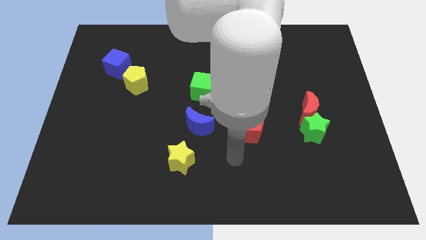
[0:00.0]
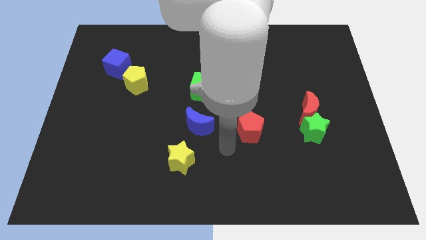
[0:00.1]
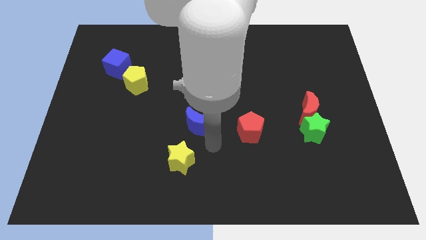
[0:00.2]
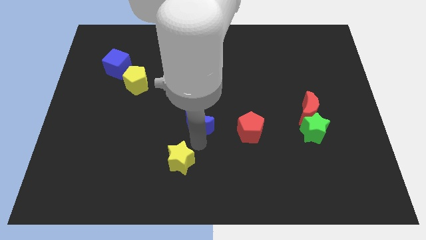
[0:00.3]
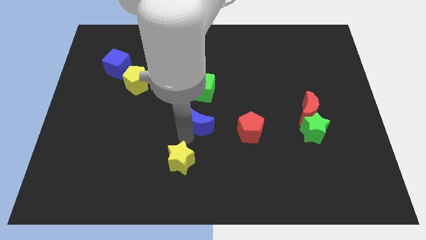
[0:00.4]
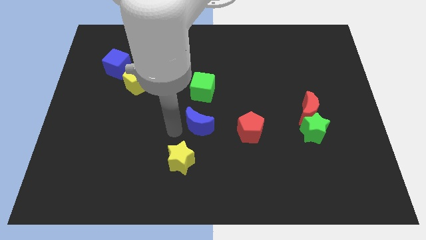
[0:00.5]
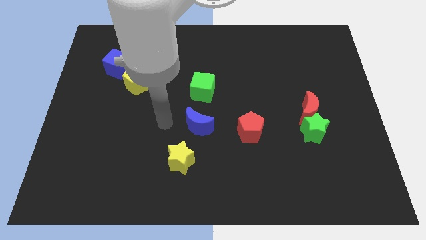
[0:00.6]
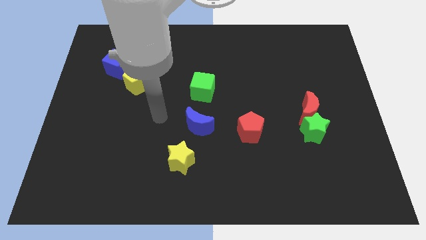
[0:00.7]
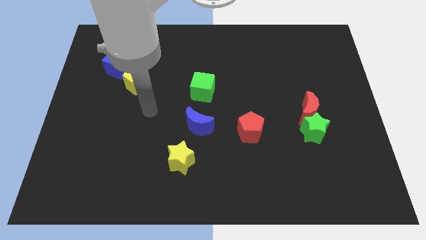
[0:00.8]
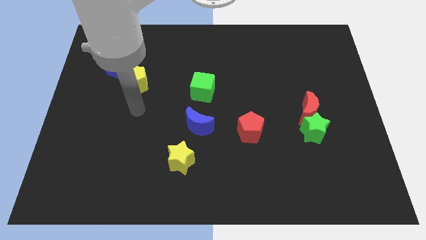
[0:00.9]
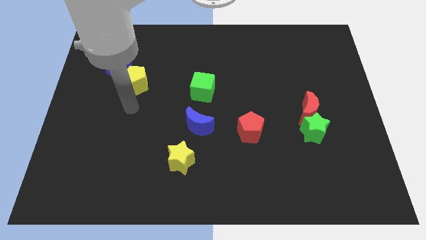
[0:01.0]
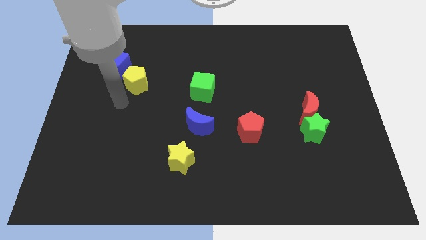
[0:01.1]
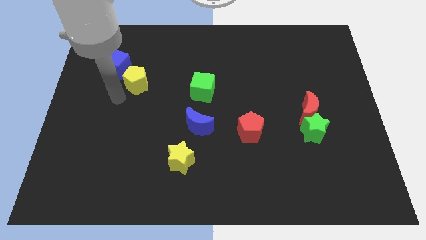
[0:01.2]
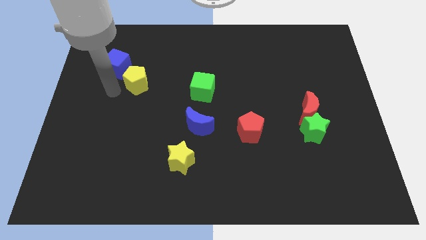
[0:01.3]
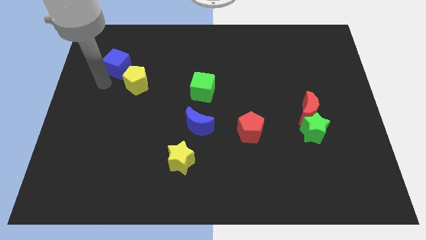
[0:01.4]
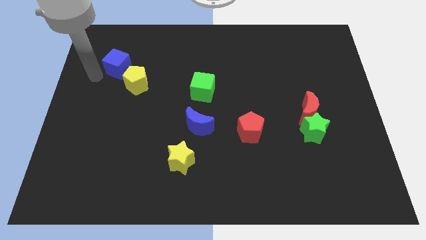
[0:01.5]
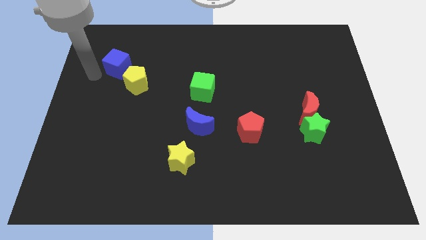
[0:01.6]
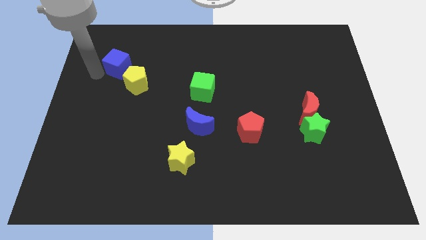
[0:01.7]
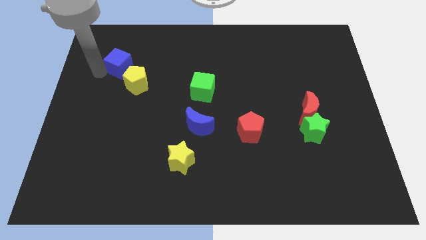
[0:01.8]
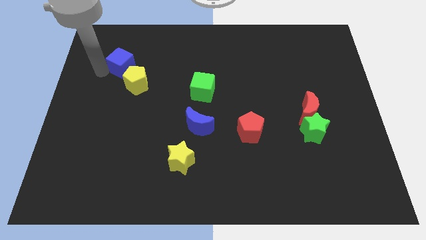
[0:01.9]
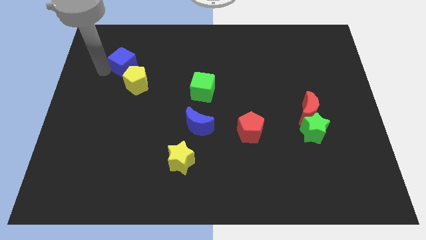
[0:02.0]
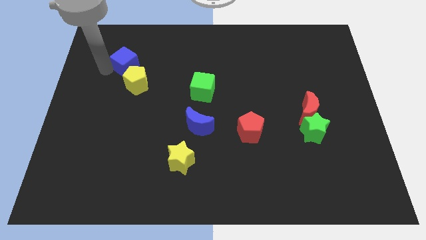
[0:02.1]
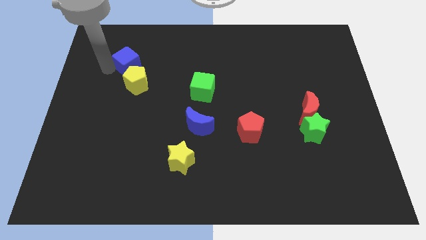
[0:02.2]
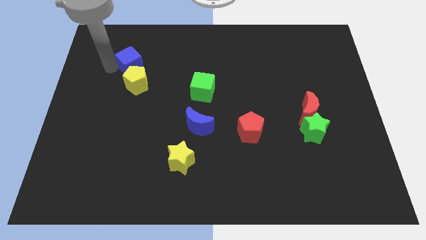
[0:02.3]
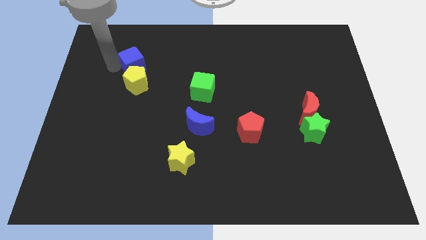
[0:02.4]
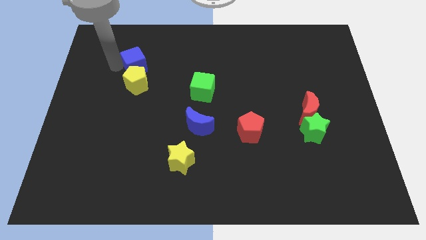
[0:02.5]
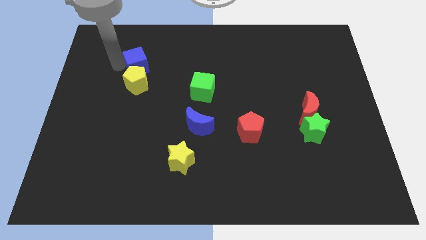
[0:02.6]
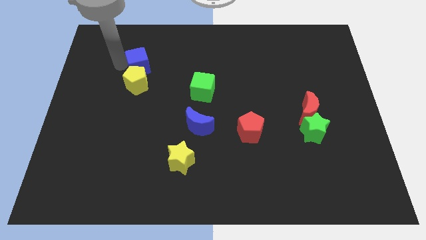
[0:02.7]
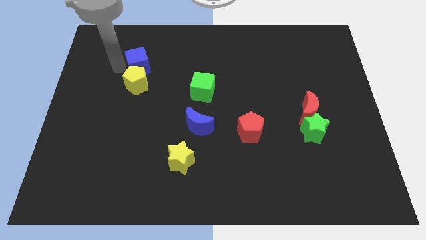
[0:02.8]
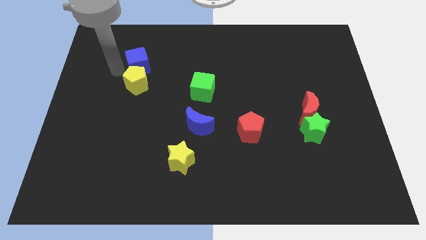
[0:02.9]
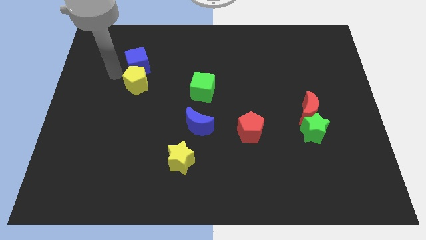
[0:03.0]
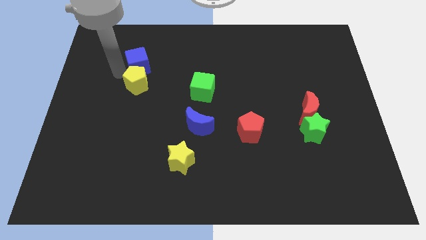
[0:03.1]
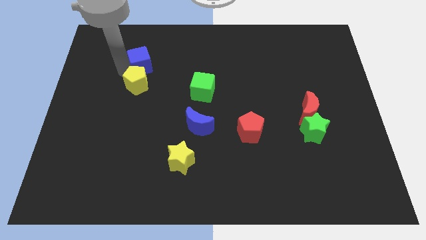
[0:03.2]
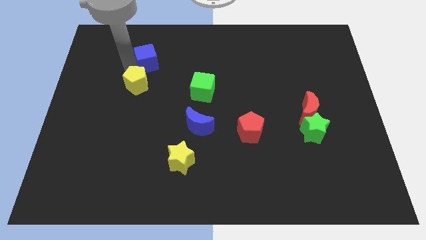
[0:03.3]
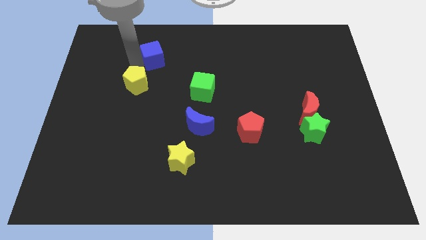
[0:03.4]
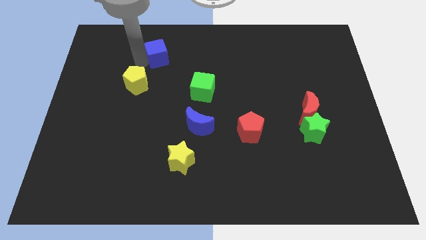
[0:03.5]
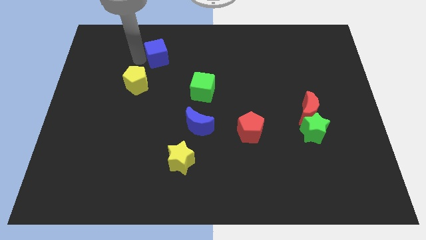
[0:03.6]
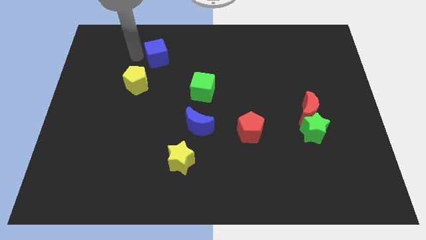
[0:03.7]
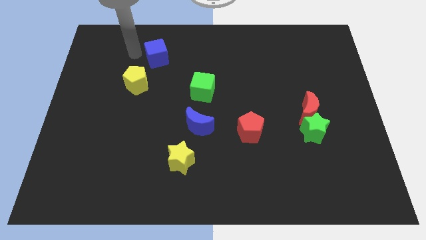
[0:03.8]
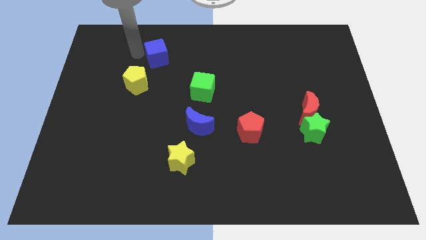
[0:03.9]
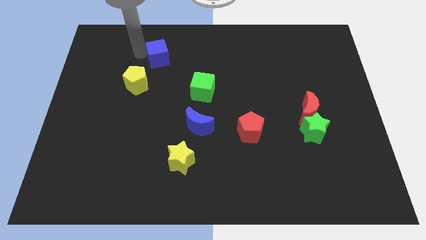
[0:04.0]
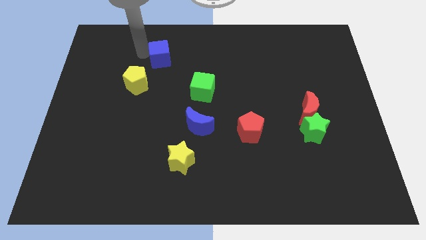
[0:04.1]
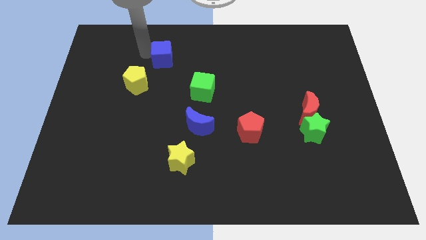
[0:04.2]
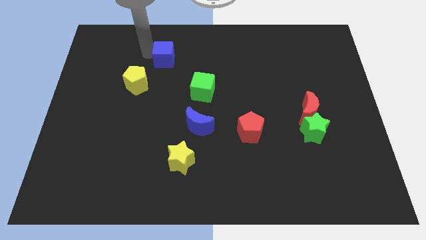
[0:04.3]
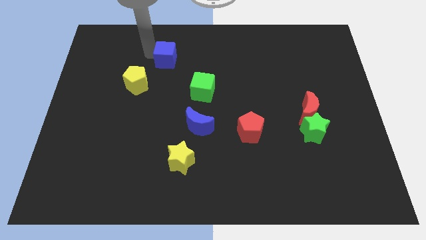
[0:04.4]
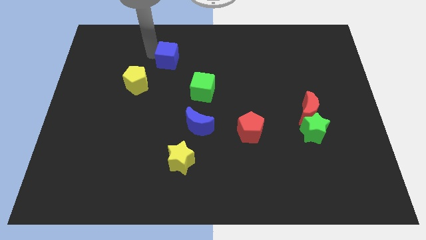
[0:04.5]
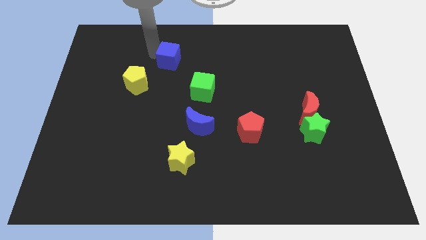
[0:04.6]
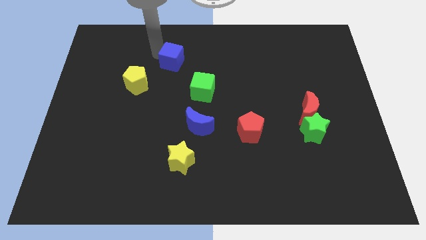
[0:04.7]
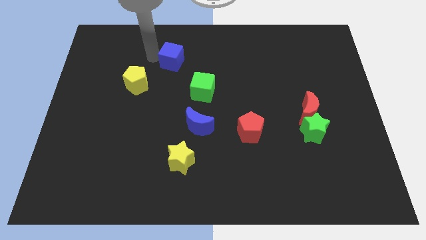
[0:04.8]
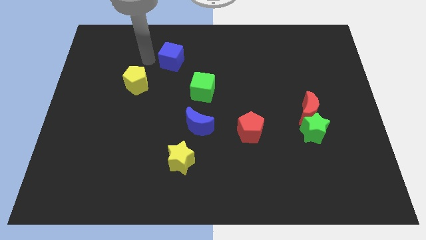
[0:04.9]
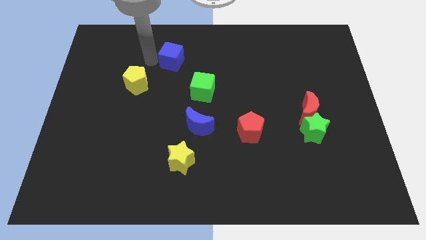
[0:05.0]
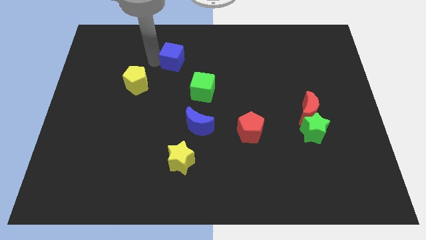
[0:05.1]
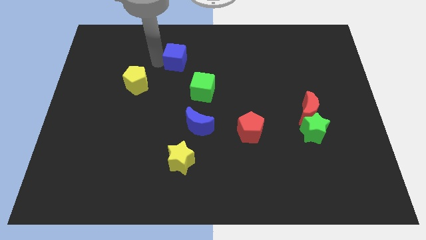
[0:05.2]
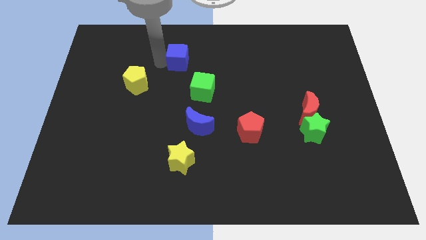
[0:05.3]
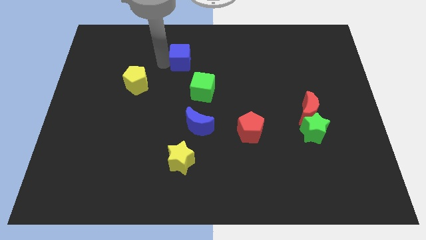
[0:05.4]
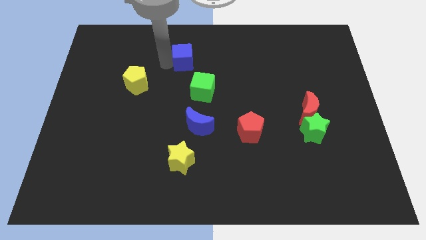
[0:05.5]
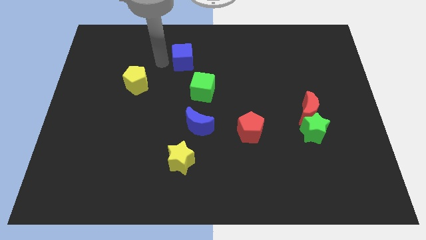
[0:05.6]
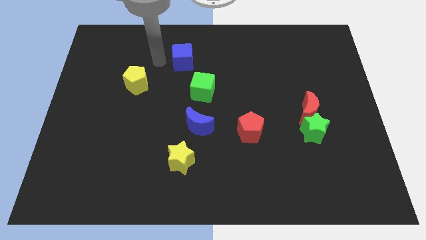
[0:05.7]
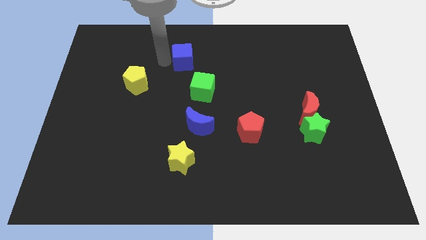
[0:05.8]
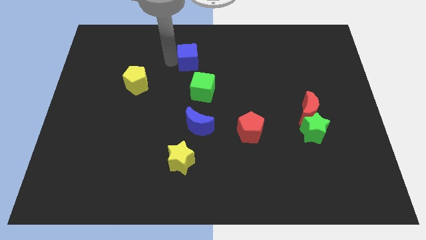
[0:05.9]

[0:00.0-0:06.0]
slide the blue cube to the top of the green cube

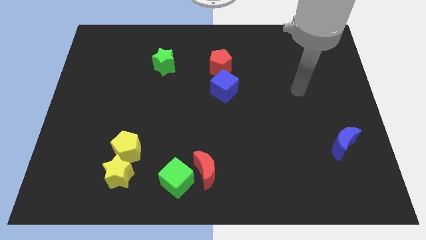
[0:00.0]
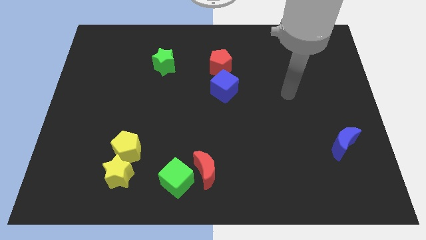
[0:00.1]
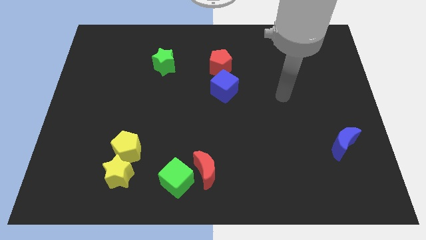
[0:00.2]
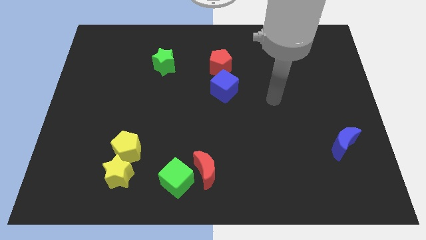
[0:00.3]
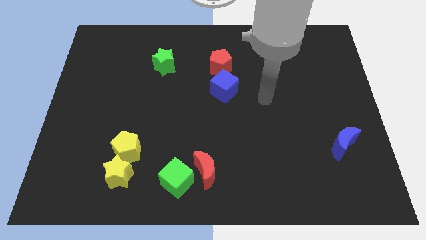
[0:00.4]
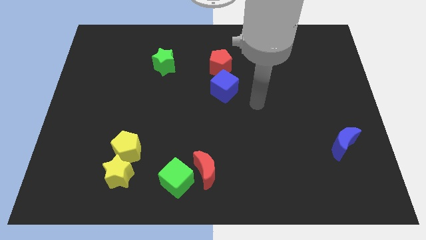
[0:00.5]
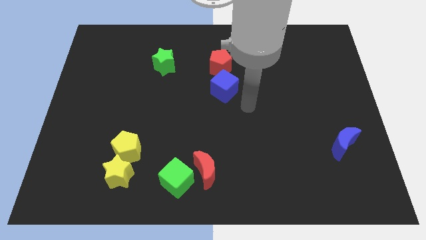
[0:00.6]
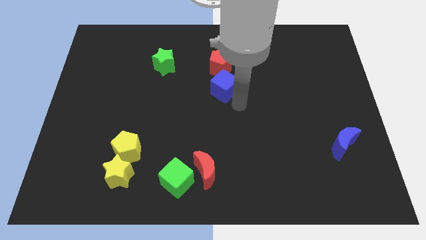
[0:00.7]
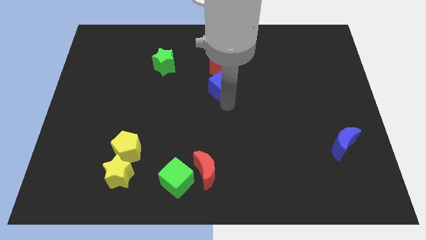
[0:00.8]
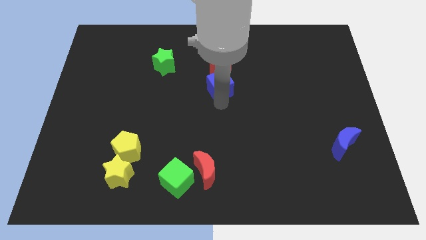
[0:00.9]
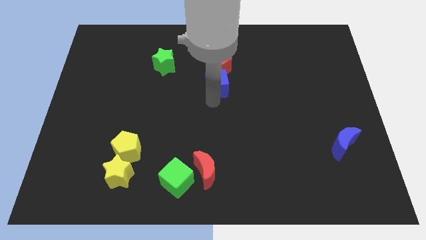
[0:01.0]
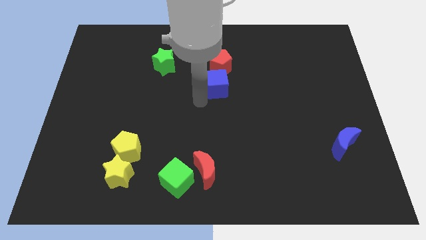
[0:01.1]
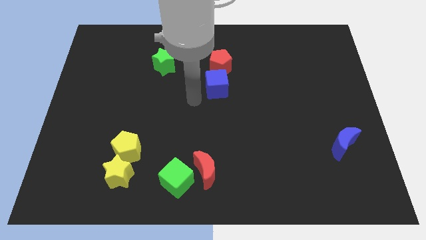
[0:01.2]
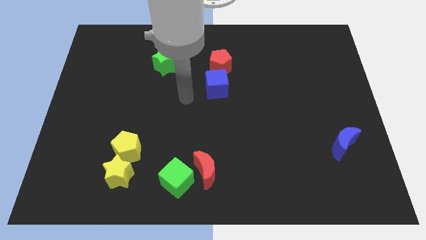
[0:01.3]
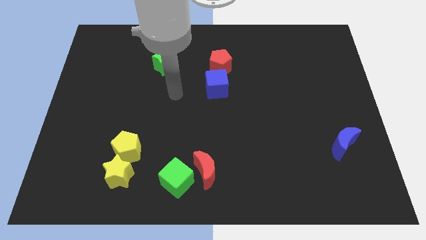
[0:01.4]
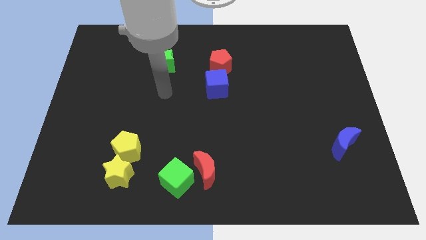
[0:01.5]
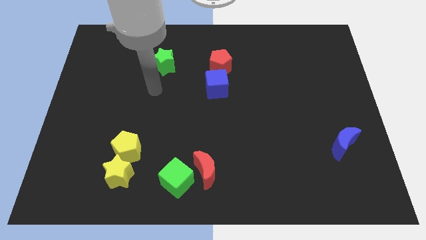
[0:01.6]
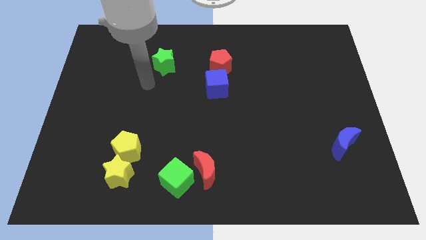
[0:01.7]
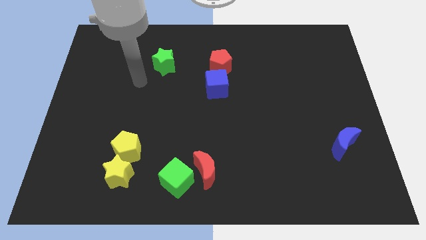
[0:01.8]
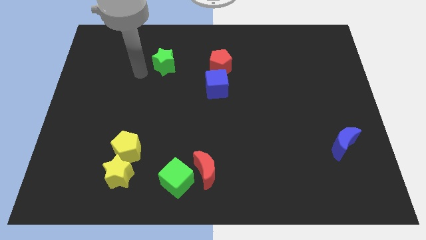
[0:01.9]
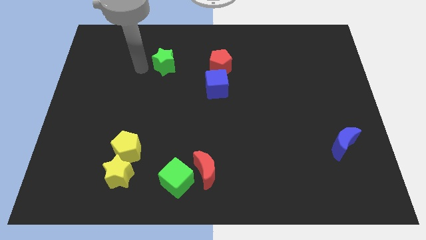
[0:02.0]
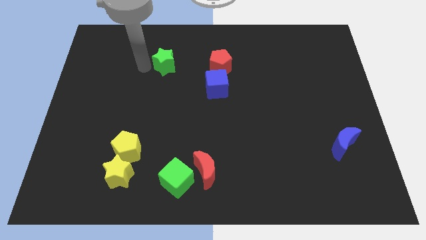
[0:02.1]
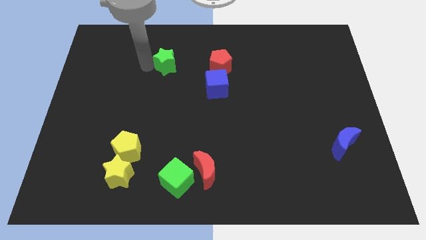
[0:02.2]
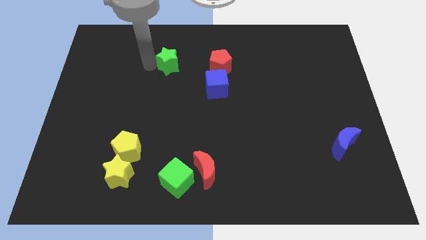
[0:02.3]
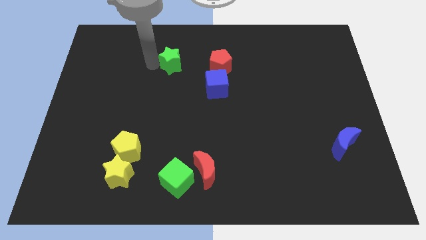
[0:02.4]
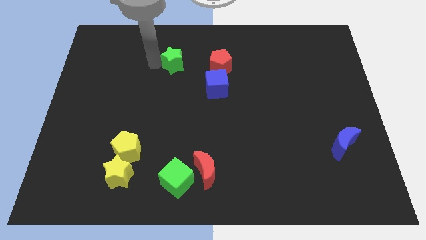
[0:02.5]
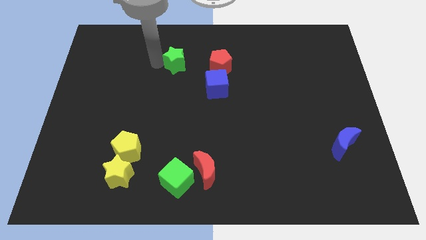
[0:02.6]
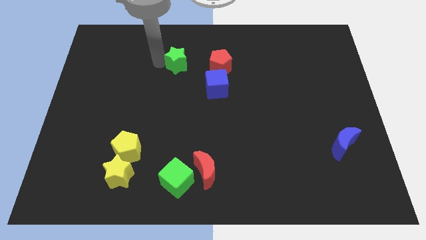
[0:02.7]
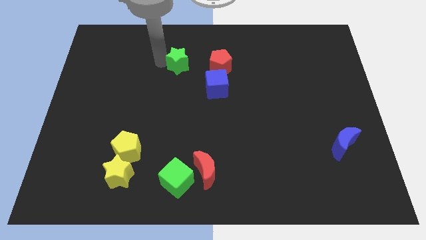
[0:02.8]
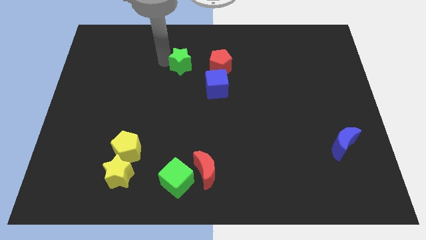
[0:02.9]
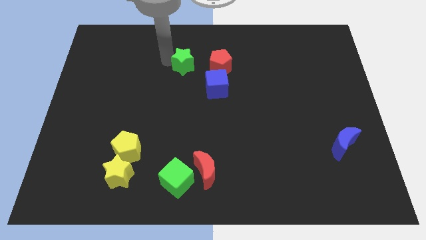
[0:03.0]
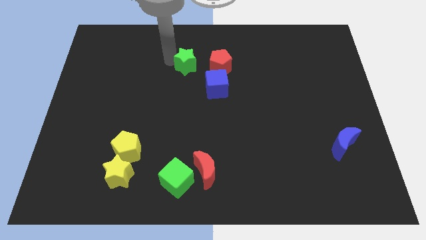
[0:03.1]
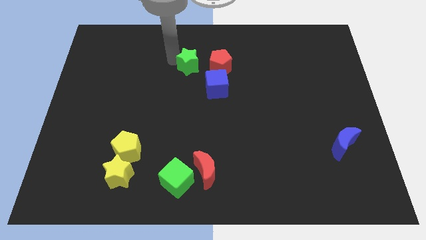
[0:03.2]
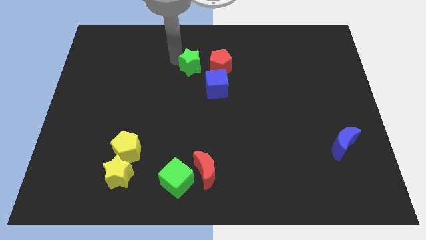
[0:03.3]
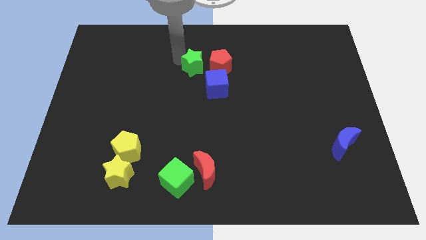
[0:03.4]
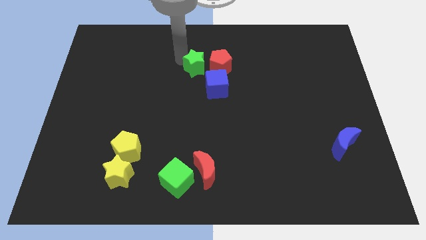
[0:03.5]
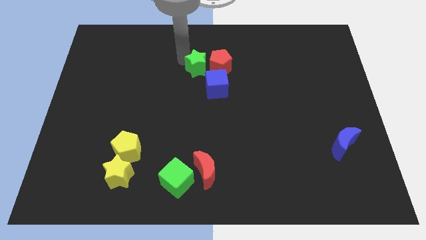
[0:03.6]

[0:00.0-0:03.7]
move the green star to the top of the blue cube
